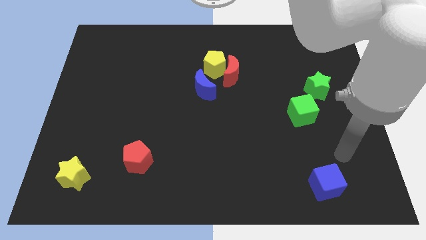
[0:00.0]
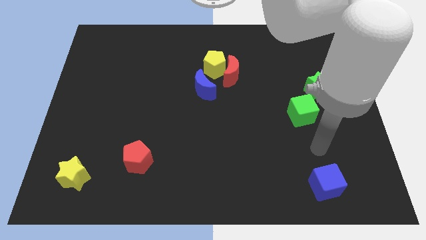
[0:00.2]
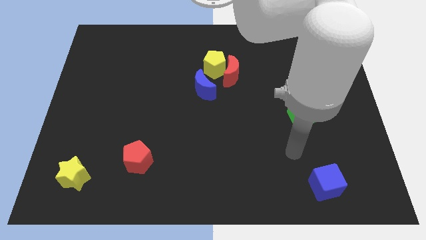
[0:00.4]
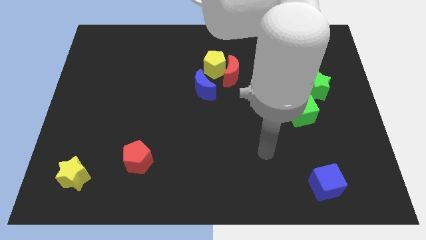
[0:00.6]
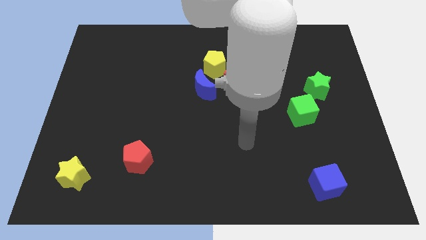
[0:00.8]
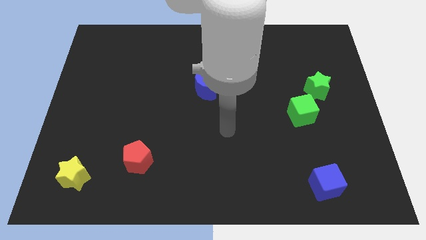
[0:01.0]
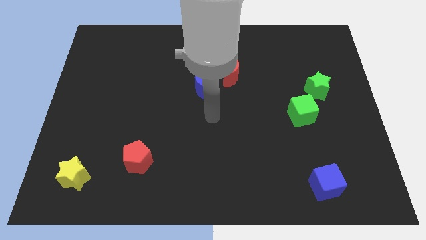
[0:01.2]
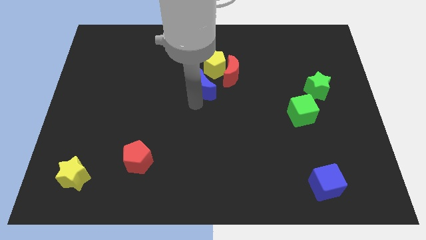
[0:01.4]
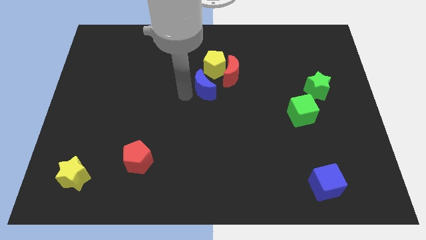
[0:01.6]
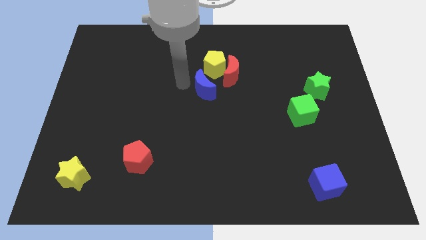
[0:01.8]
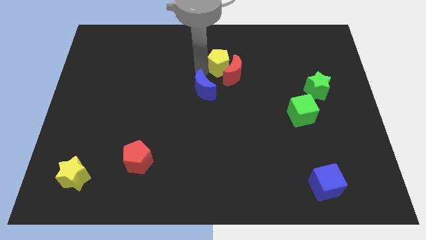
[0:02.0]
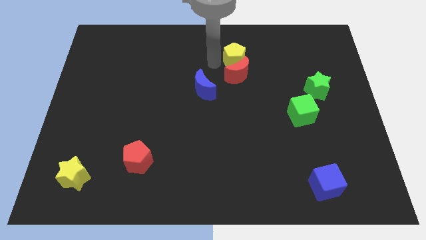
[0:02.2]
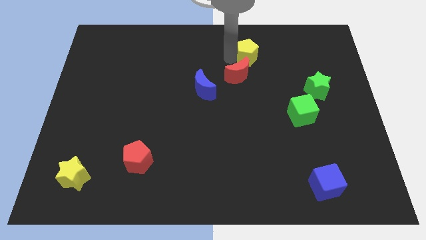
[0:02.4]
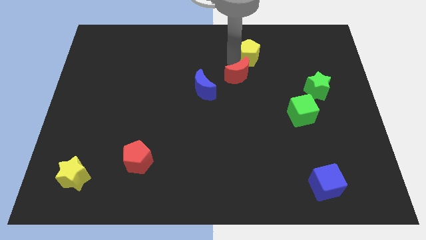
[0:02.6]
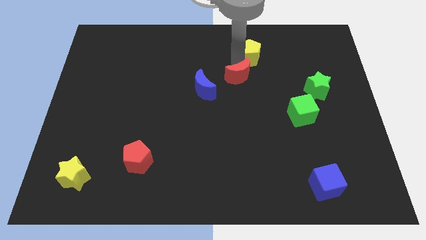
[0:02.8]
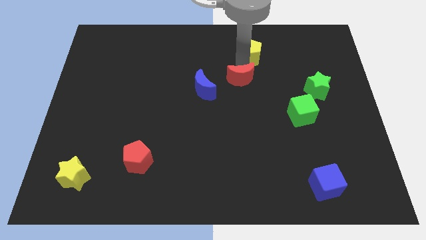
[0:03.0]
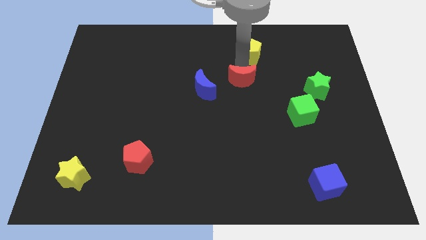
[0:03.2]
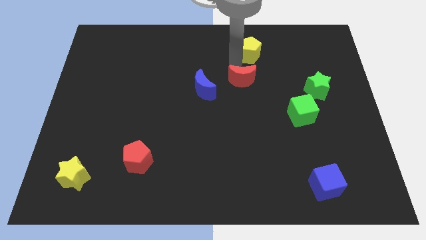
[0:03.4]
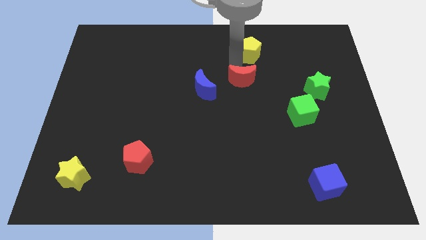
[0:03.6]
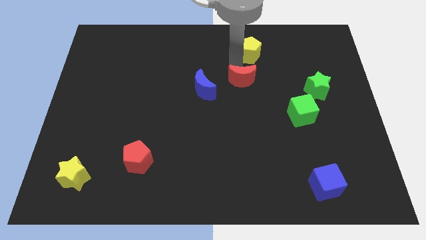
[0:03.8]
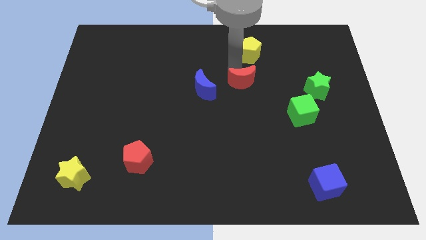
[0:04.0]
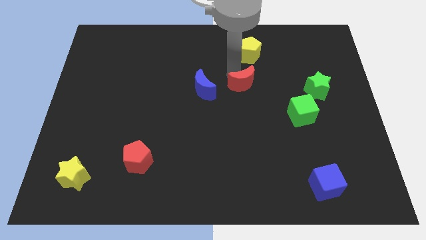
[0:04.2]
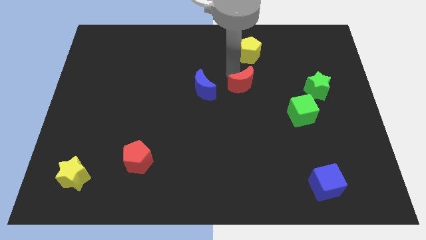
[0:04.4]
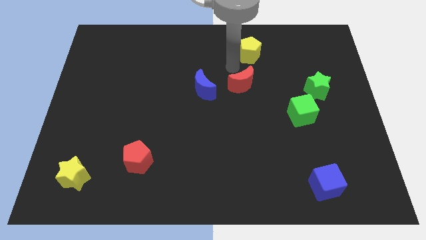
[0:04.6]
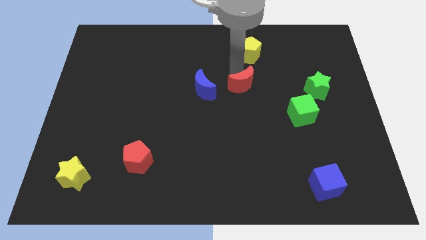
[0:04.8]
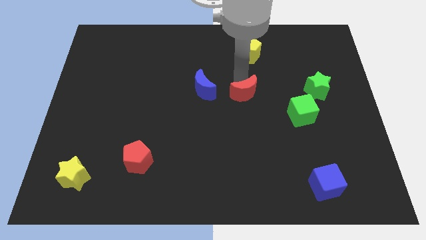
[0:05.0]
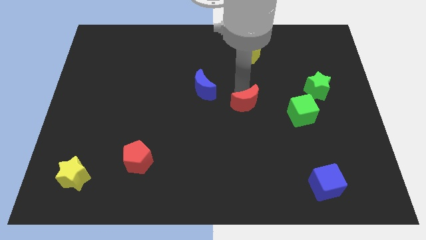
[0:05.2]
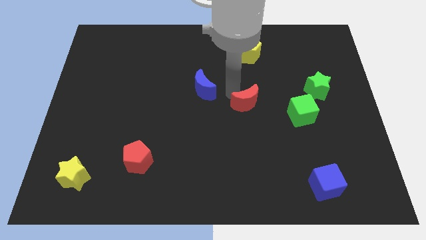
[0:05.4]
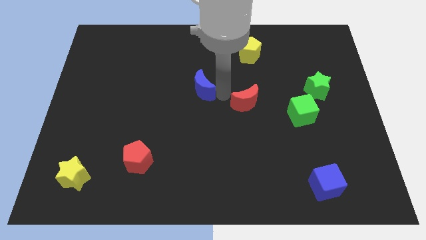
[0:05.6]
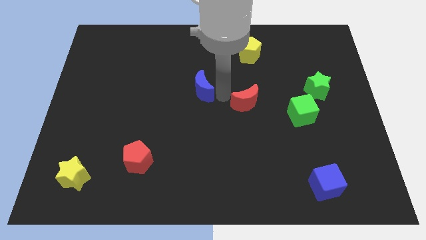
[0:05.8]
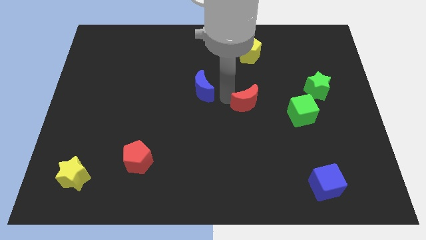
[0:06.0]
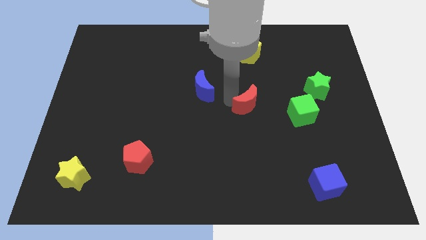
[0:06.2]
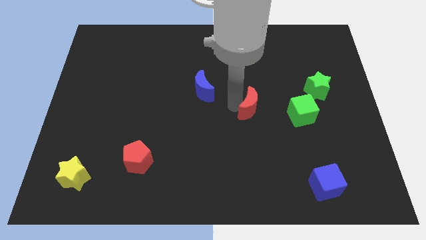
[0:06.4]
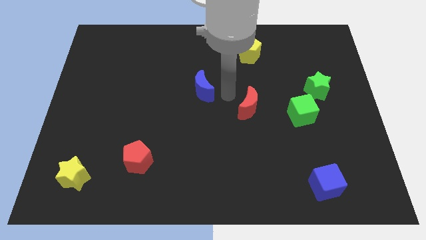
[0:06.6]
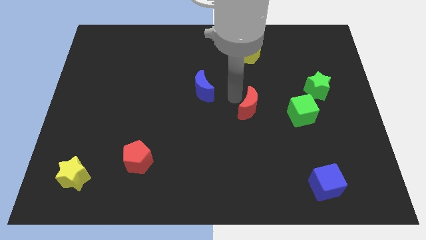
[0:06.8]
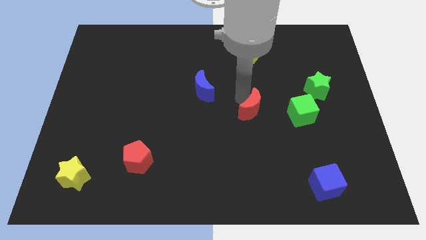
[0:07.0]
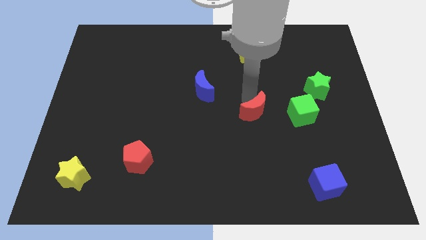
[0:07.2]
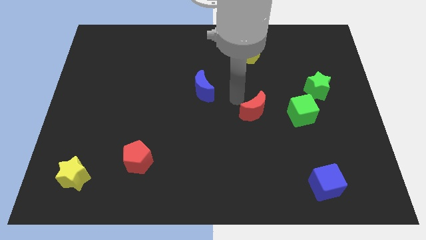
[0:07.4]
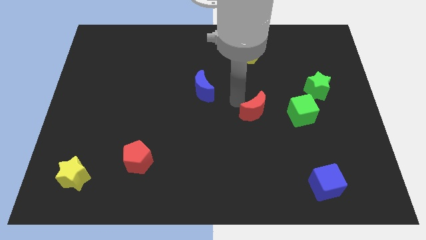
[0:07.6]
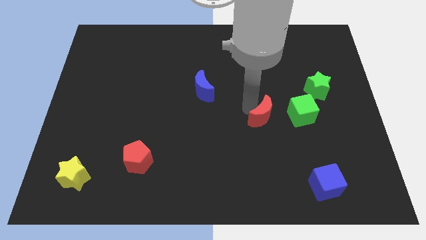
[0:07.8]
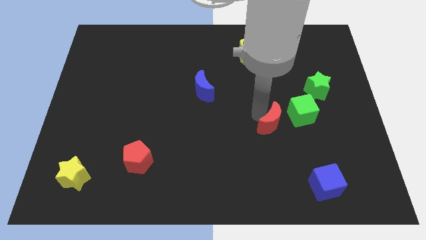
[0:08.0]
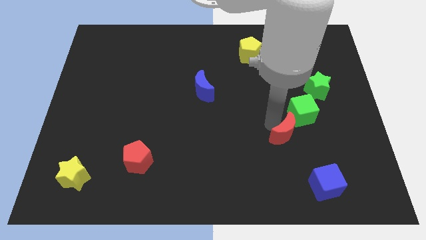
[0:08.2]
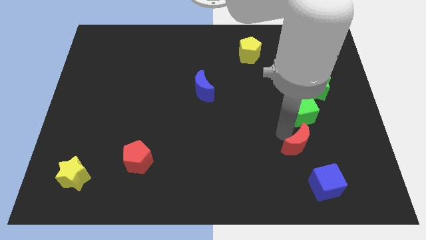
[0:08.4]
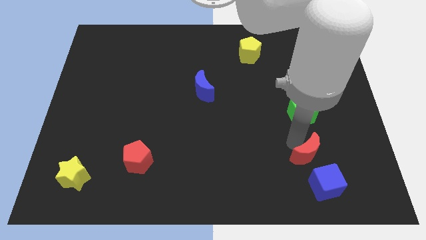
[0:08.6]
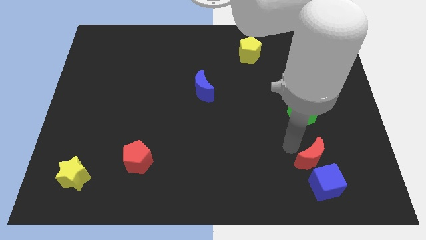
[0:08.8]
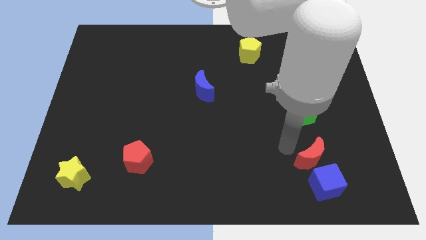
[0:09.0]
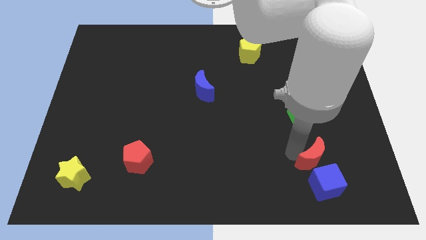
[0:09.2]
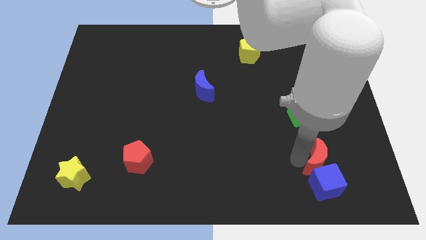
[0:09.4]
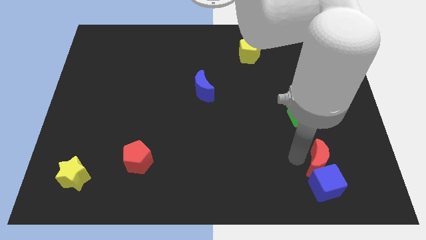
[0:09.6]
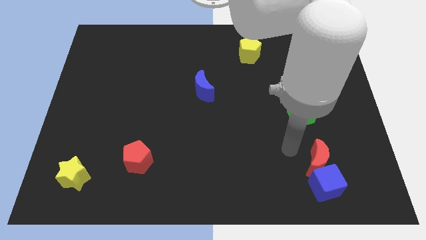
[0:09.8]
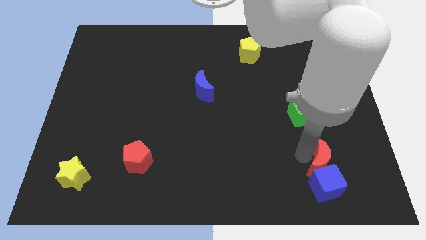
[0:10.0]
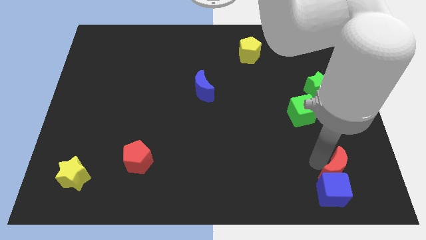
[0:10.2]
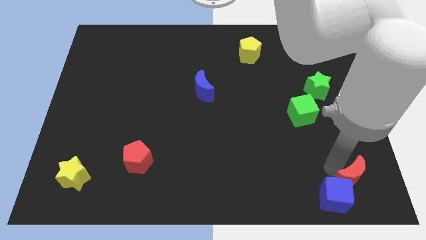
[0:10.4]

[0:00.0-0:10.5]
move the red moon to the bottom right of the board
